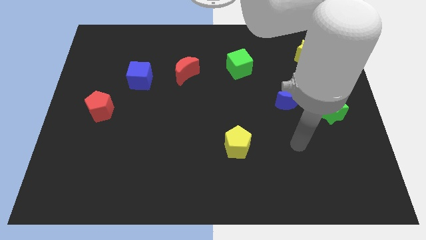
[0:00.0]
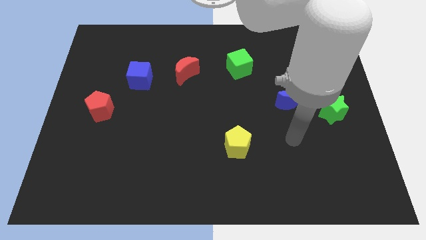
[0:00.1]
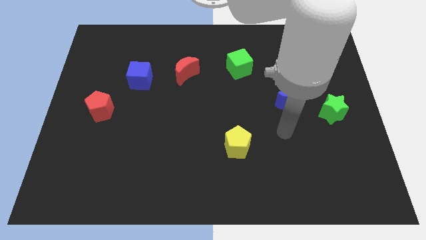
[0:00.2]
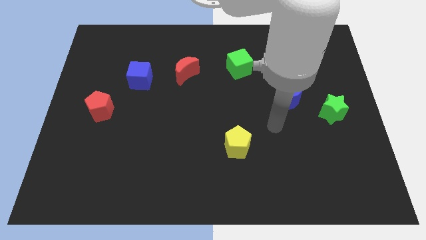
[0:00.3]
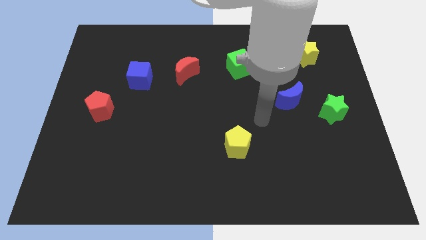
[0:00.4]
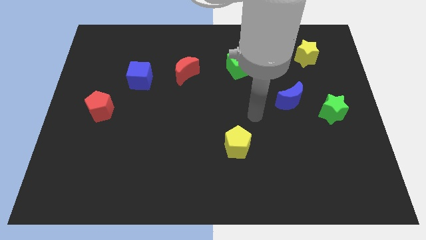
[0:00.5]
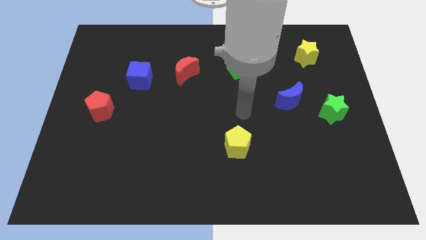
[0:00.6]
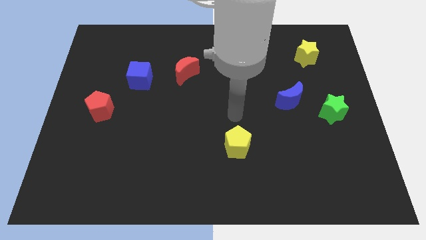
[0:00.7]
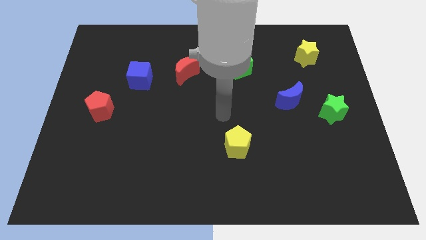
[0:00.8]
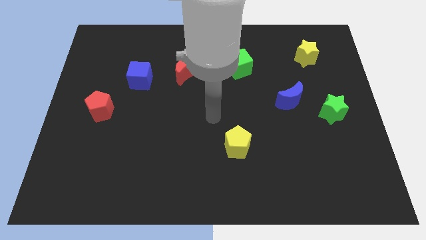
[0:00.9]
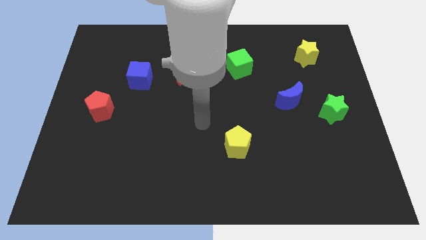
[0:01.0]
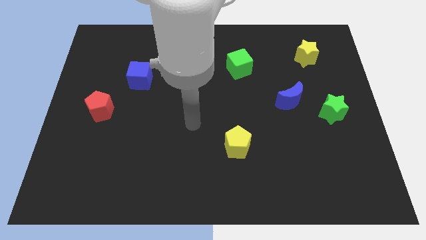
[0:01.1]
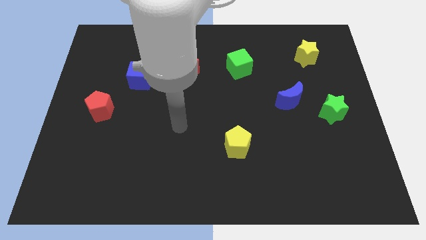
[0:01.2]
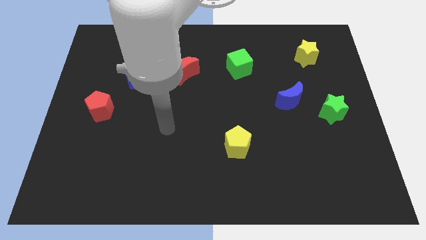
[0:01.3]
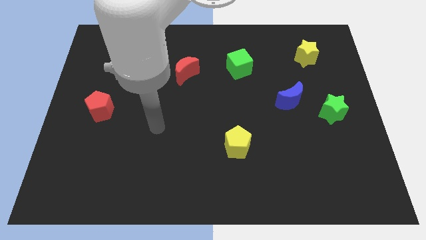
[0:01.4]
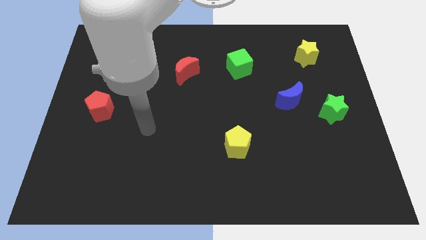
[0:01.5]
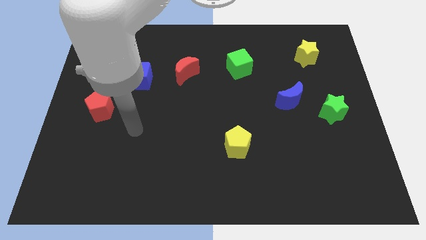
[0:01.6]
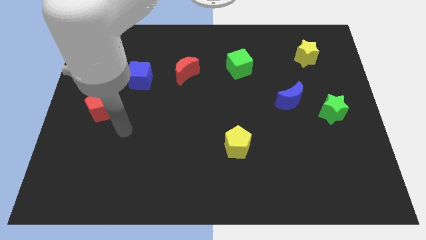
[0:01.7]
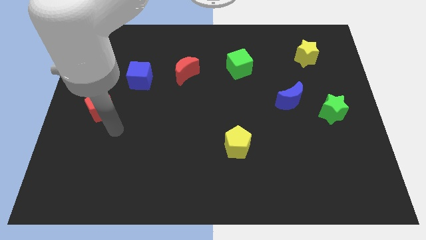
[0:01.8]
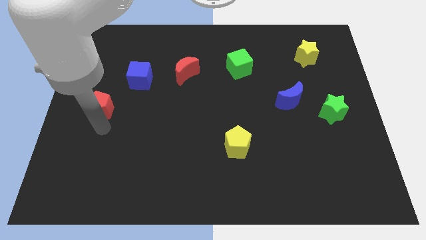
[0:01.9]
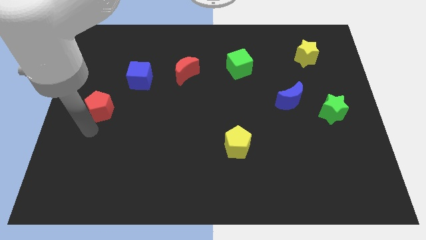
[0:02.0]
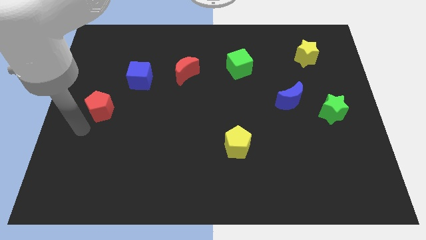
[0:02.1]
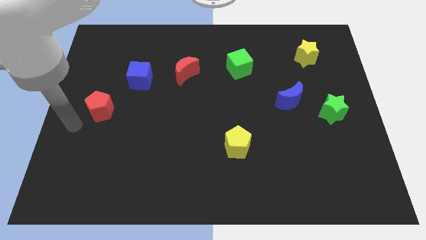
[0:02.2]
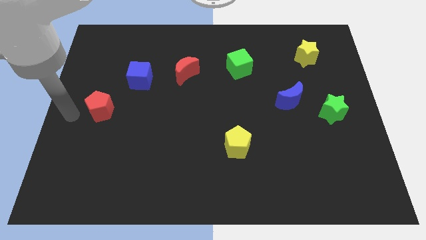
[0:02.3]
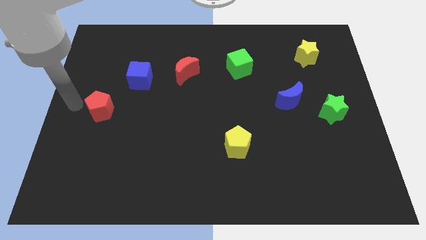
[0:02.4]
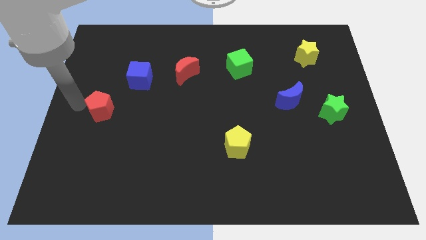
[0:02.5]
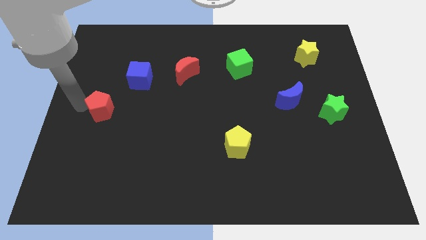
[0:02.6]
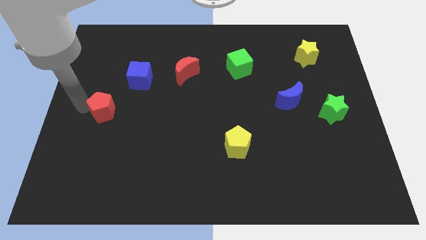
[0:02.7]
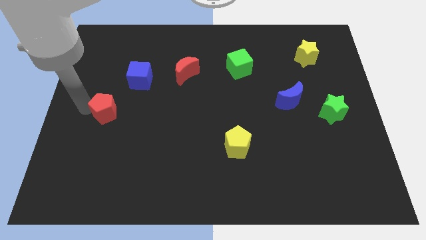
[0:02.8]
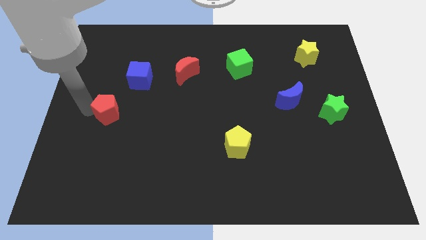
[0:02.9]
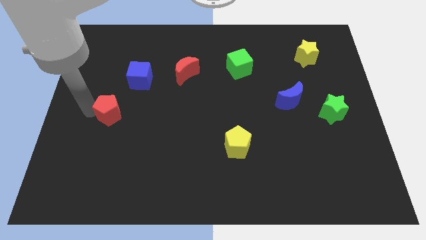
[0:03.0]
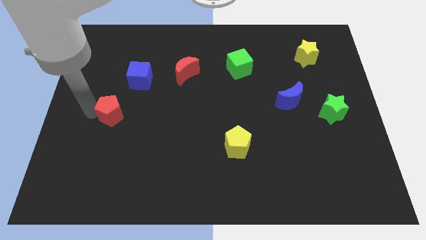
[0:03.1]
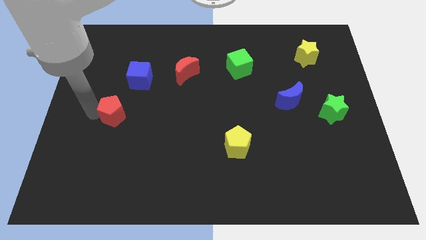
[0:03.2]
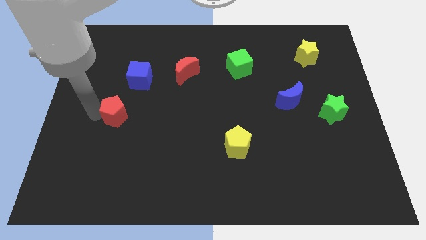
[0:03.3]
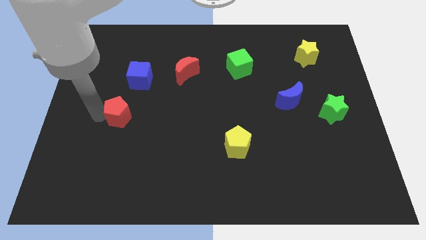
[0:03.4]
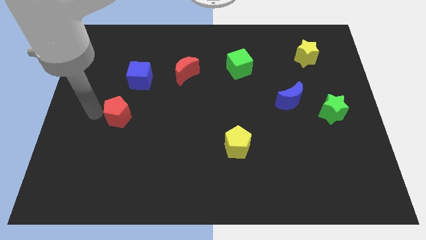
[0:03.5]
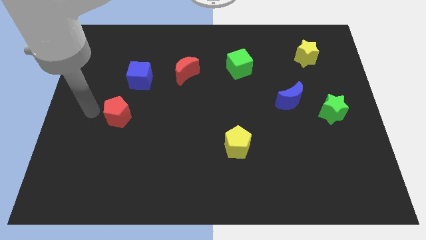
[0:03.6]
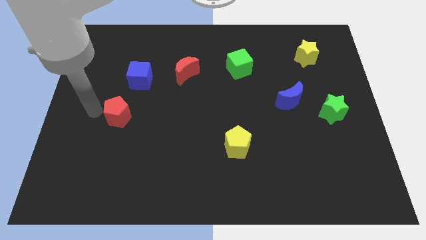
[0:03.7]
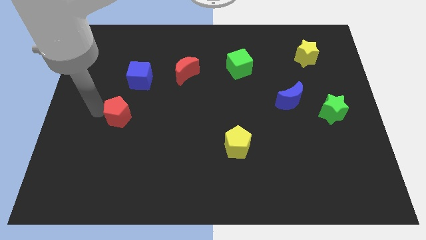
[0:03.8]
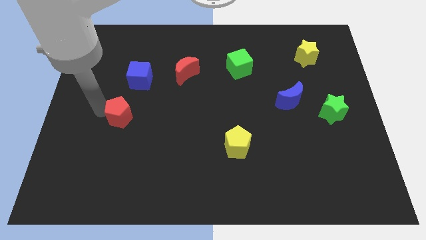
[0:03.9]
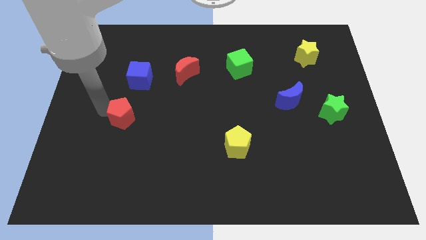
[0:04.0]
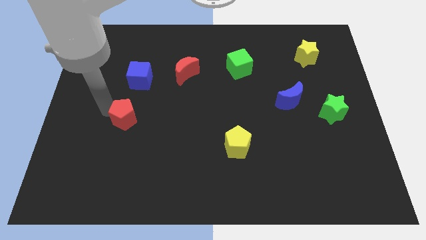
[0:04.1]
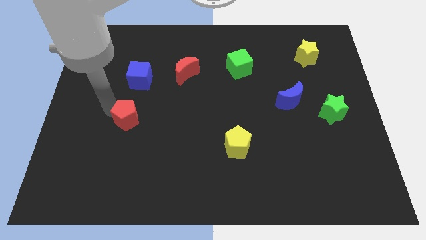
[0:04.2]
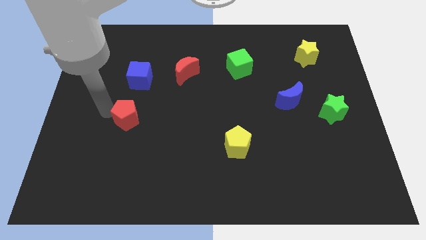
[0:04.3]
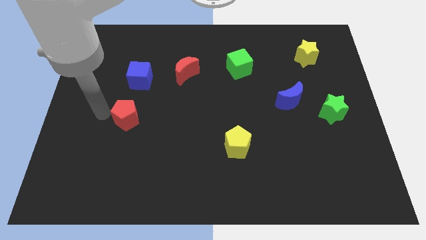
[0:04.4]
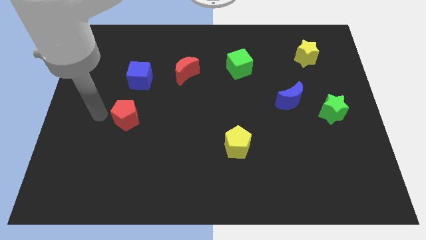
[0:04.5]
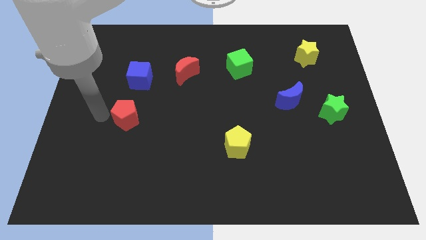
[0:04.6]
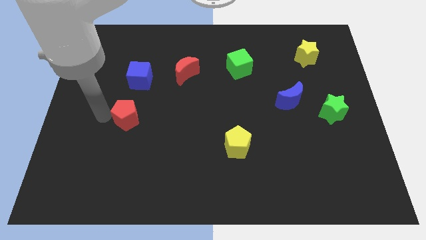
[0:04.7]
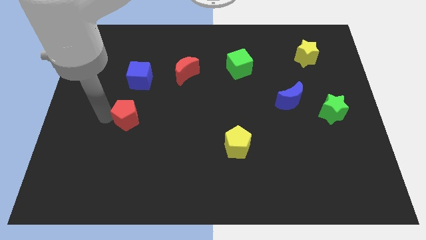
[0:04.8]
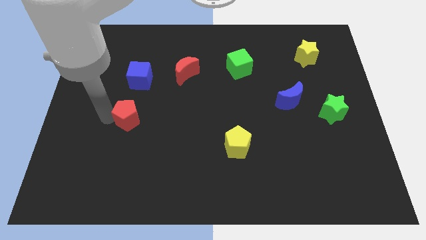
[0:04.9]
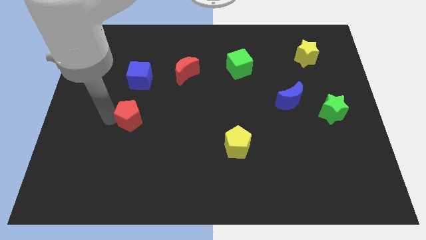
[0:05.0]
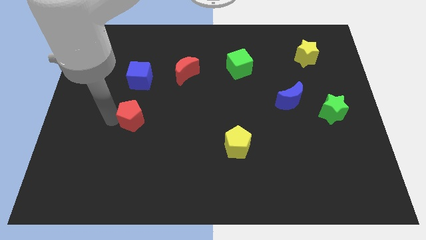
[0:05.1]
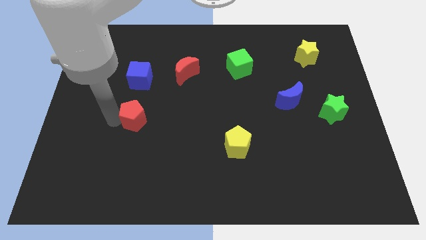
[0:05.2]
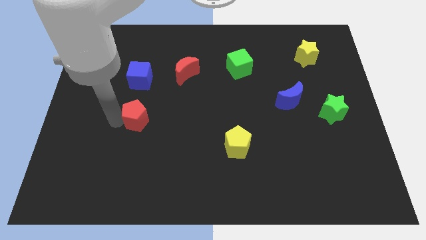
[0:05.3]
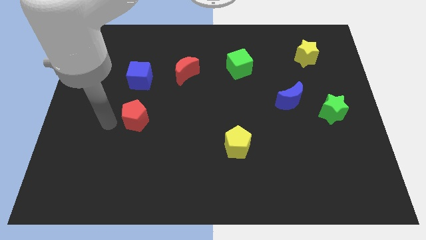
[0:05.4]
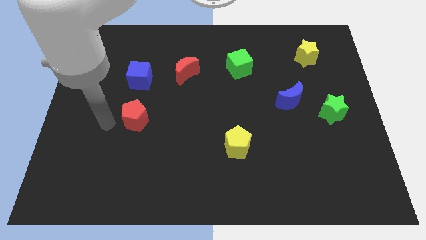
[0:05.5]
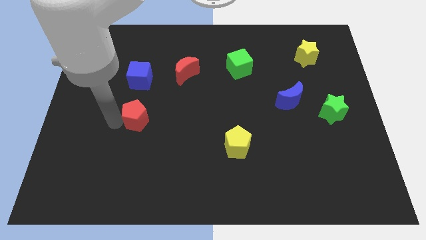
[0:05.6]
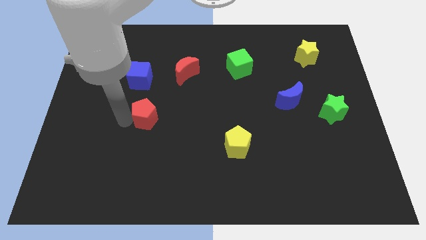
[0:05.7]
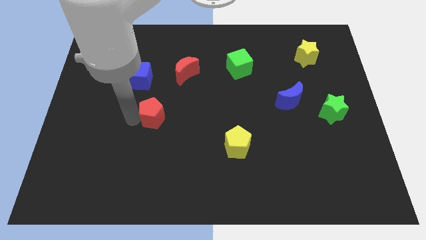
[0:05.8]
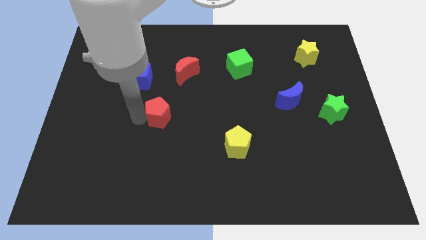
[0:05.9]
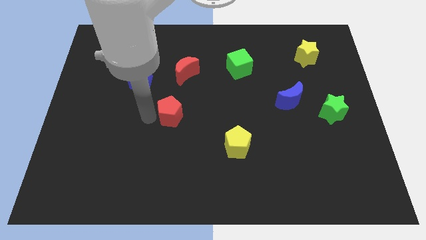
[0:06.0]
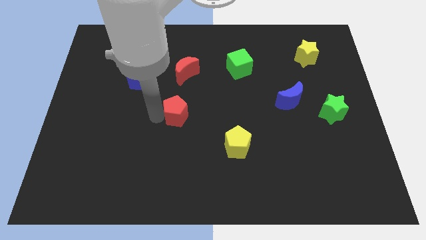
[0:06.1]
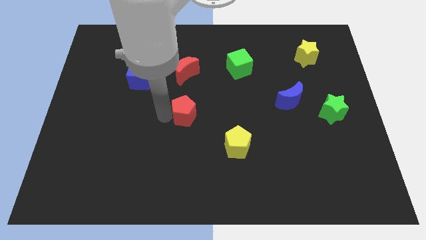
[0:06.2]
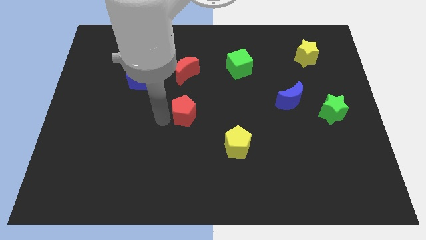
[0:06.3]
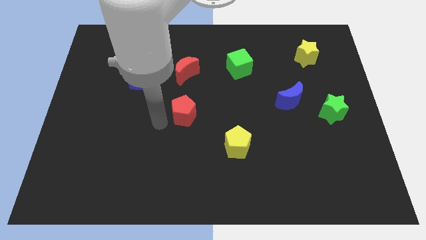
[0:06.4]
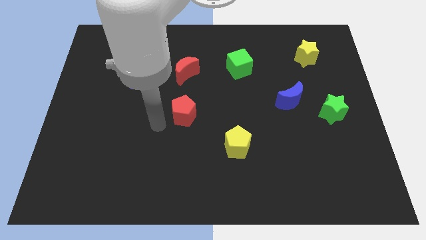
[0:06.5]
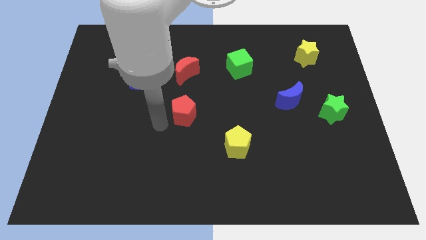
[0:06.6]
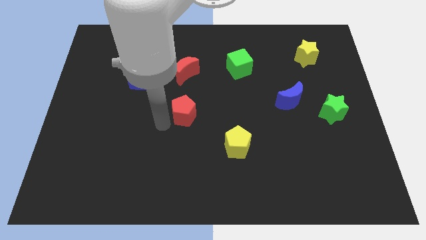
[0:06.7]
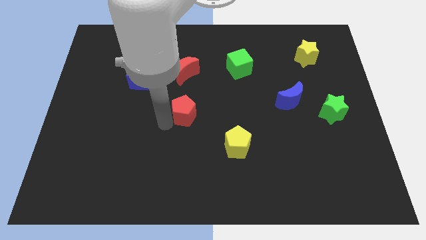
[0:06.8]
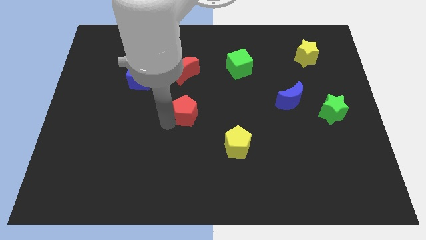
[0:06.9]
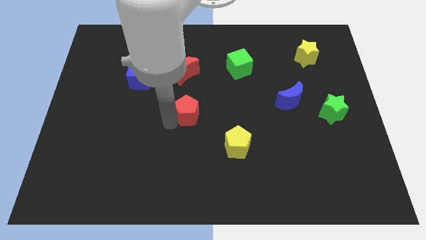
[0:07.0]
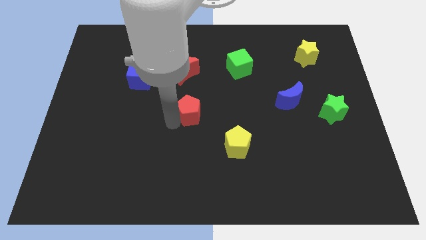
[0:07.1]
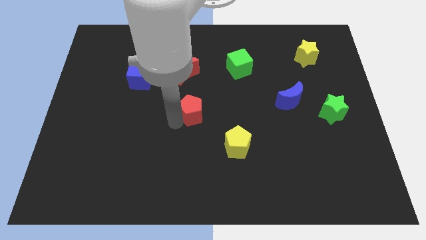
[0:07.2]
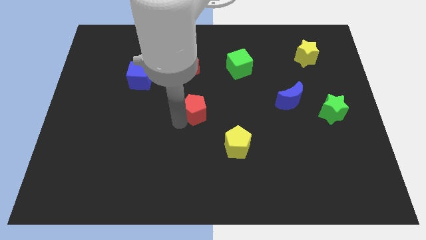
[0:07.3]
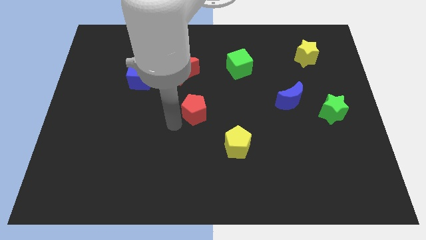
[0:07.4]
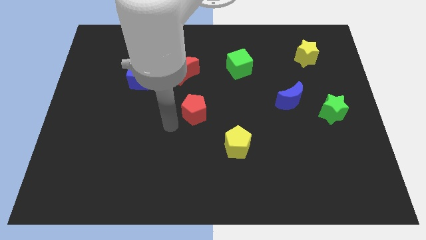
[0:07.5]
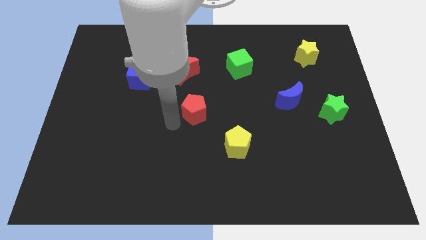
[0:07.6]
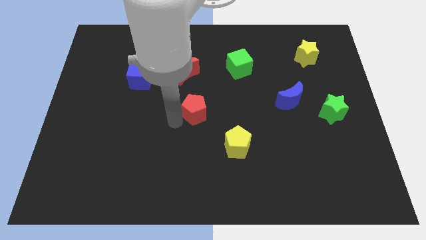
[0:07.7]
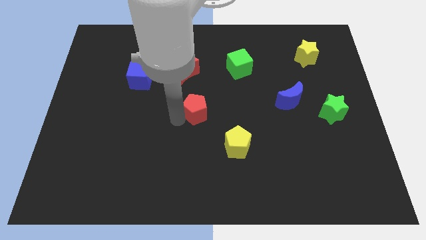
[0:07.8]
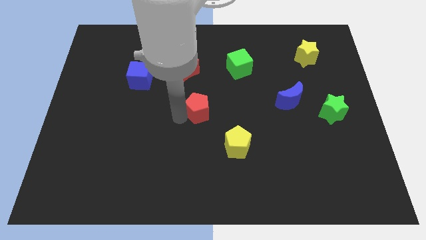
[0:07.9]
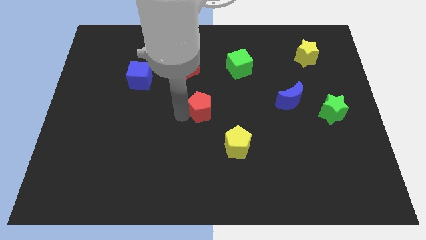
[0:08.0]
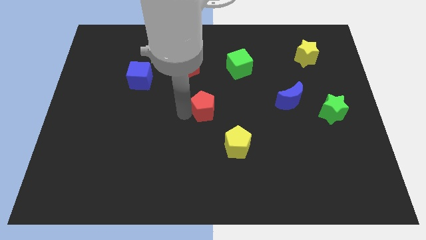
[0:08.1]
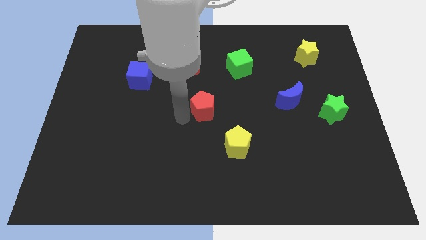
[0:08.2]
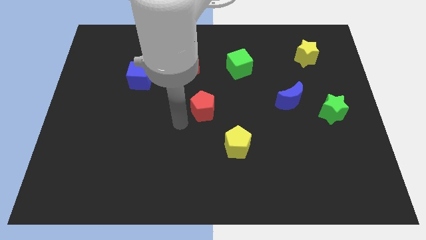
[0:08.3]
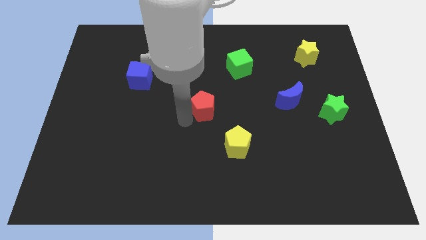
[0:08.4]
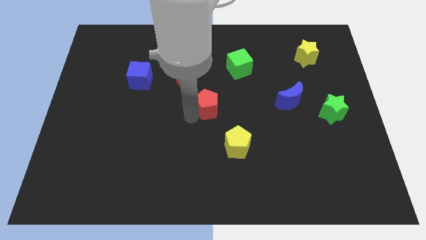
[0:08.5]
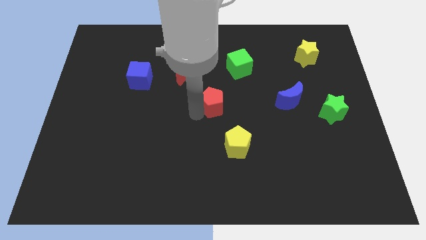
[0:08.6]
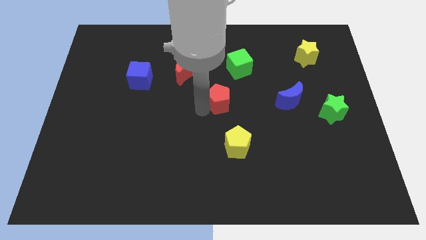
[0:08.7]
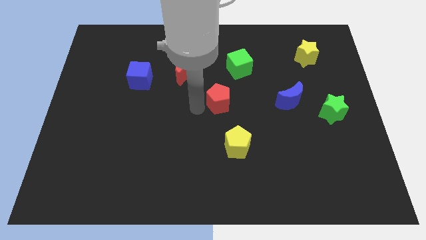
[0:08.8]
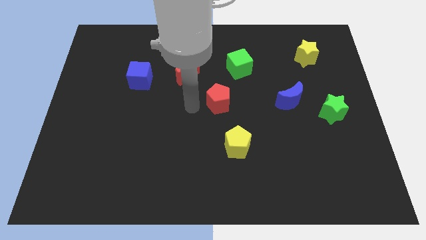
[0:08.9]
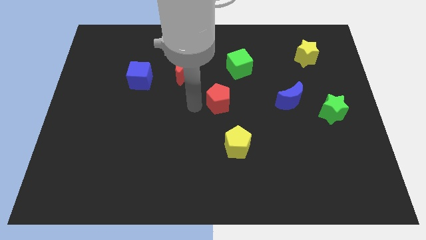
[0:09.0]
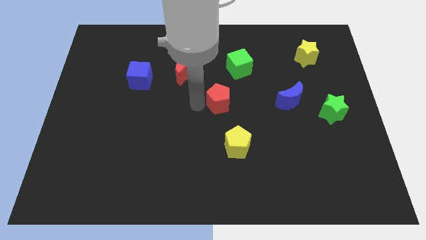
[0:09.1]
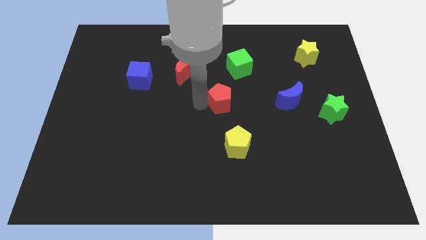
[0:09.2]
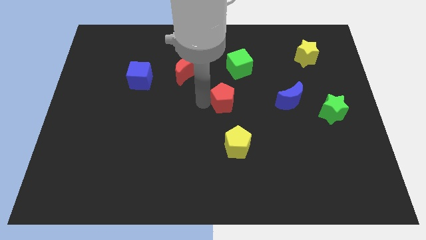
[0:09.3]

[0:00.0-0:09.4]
move the red pentagon to the bottom of the green cube
